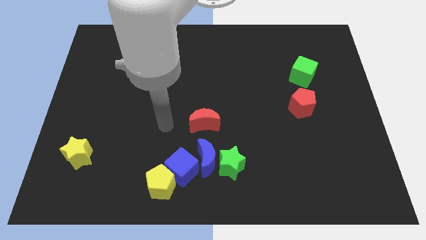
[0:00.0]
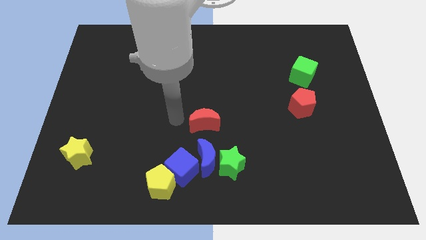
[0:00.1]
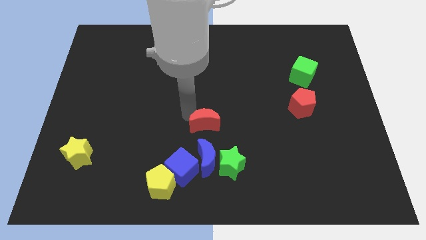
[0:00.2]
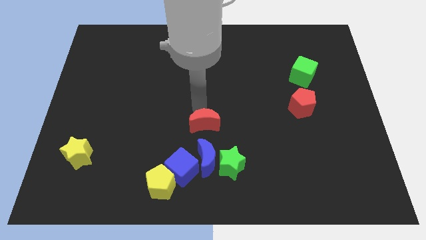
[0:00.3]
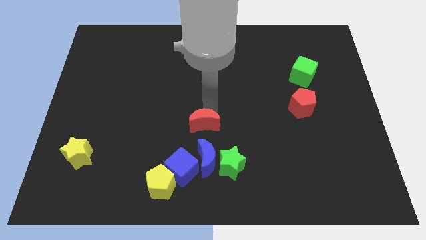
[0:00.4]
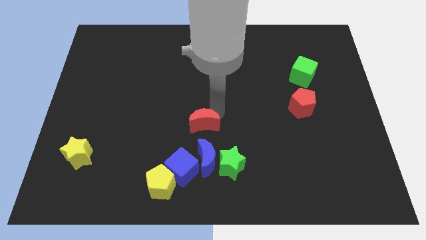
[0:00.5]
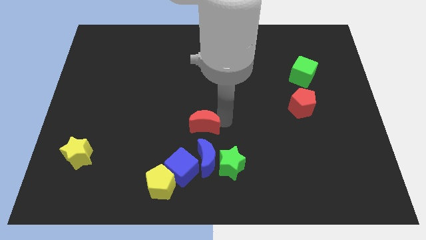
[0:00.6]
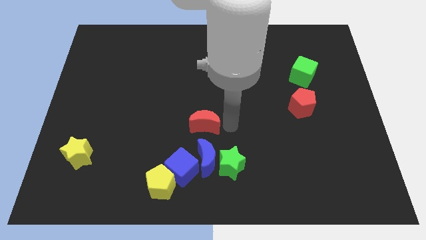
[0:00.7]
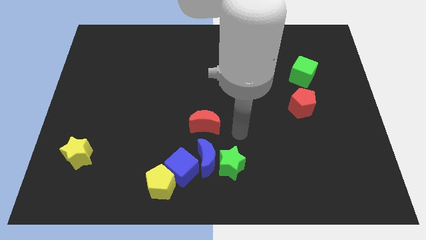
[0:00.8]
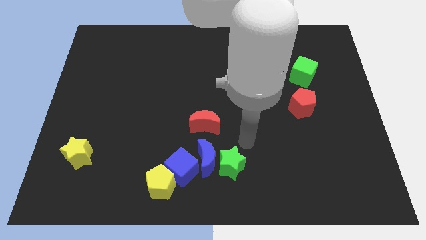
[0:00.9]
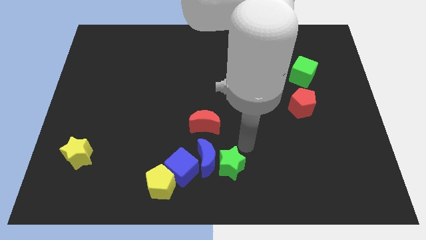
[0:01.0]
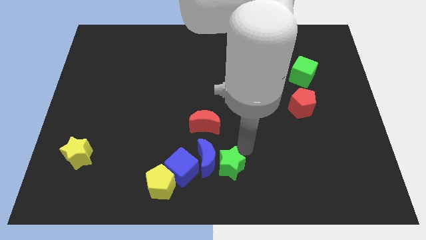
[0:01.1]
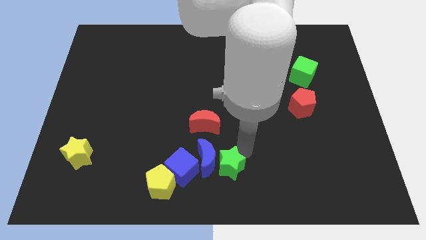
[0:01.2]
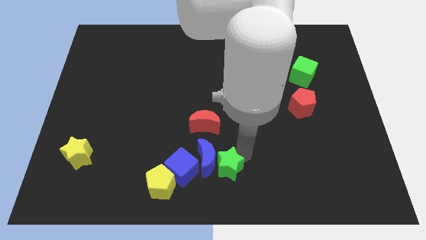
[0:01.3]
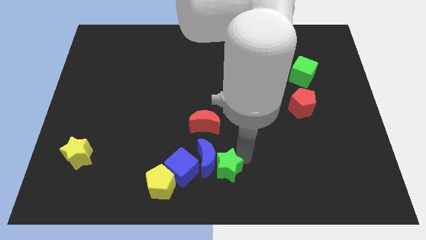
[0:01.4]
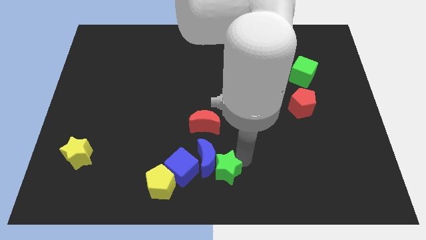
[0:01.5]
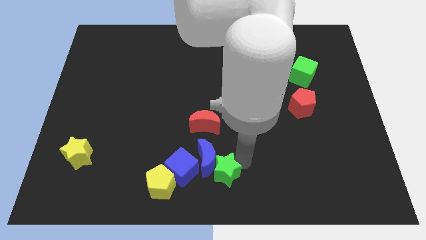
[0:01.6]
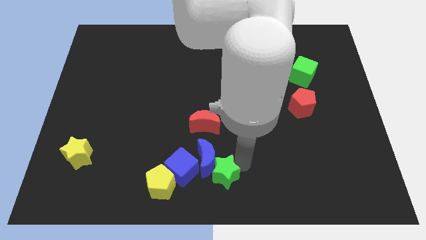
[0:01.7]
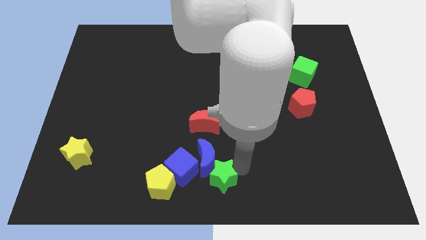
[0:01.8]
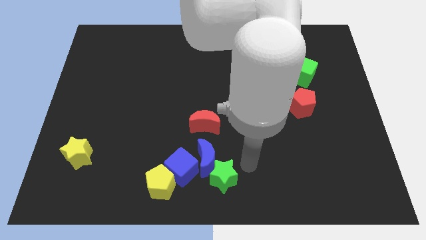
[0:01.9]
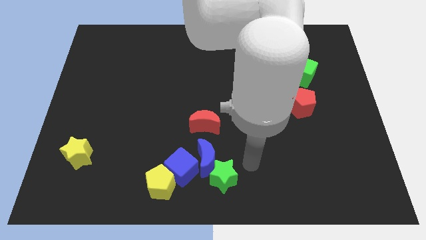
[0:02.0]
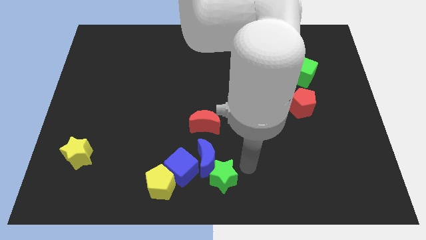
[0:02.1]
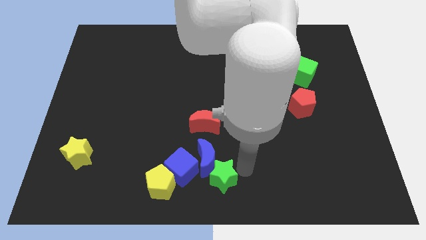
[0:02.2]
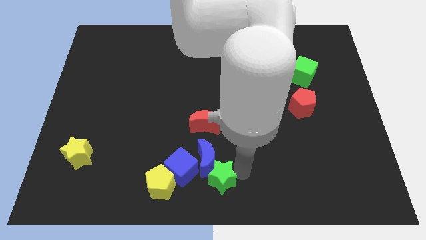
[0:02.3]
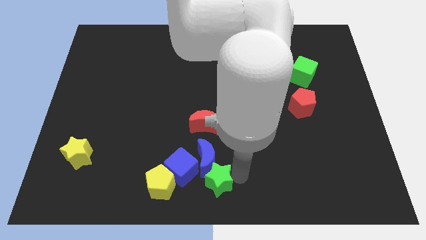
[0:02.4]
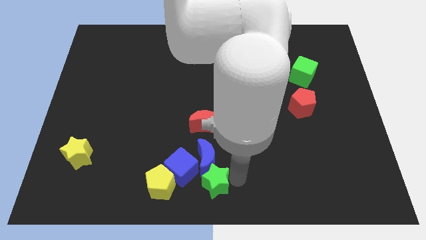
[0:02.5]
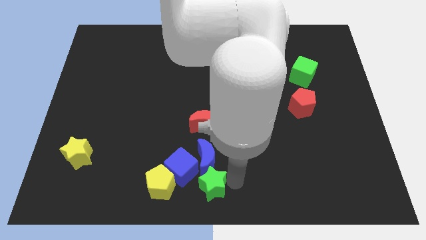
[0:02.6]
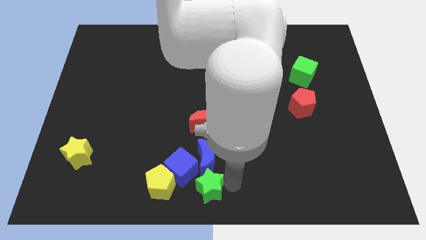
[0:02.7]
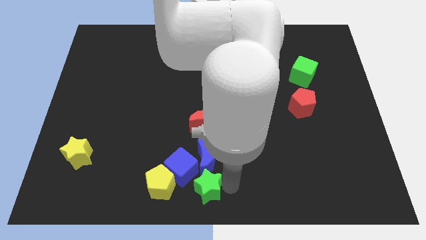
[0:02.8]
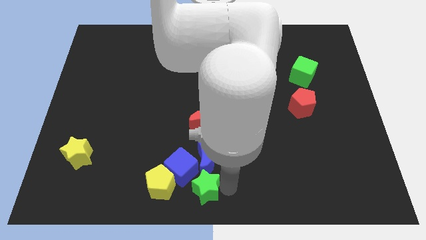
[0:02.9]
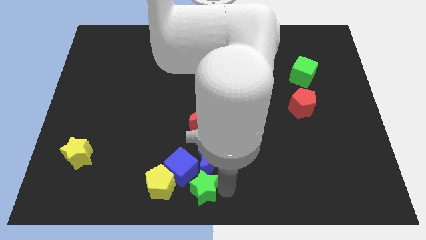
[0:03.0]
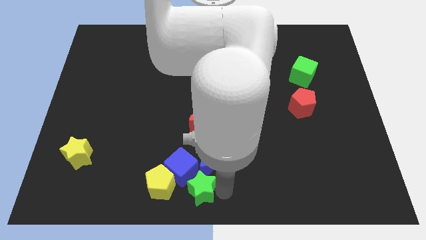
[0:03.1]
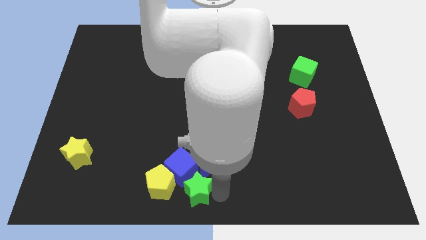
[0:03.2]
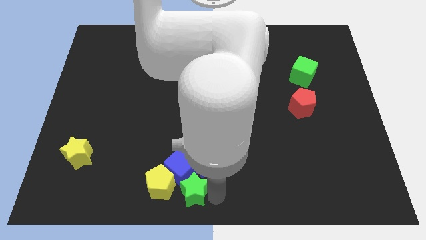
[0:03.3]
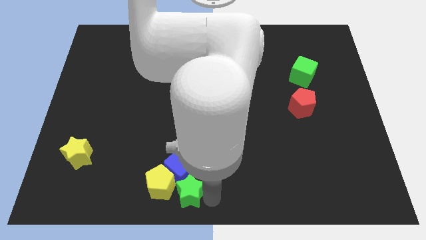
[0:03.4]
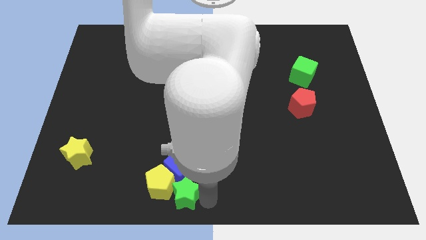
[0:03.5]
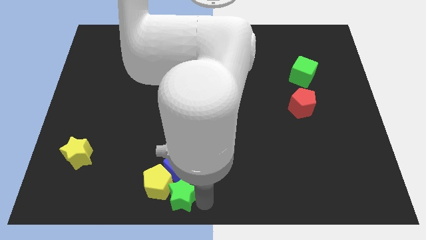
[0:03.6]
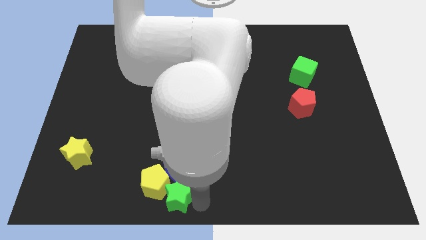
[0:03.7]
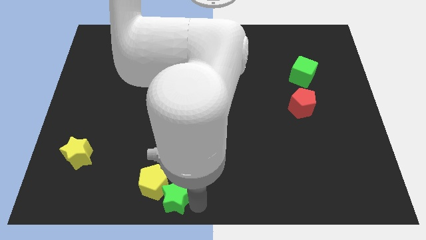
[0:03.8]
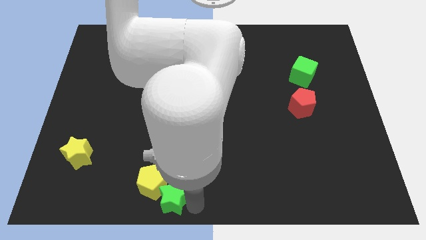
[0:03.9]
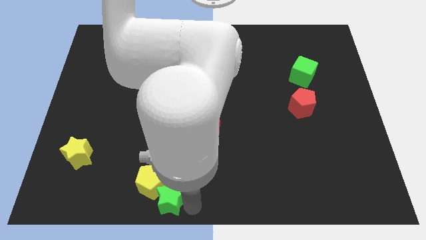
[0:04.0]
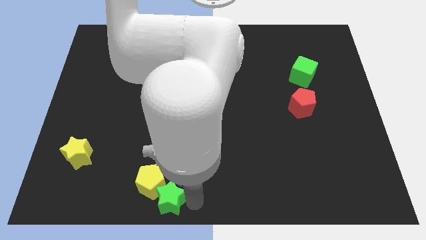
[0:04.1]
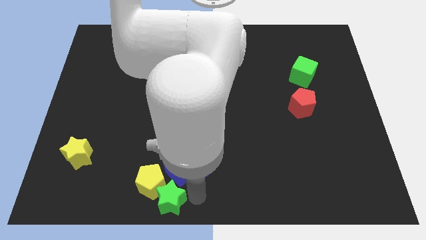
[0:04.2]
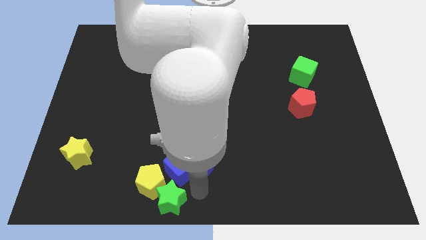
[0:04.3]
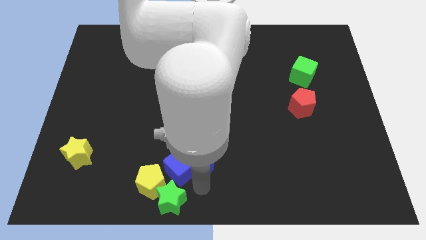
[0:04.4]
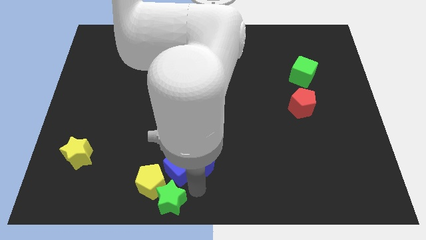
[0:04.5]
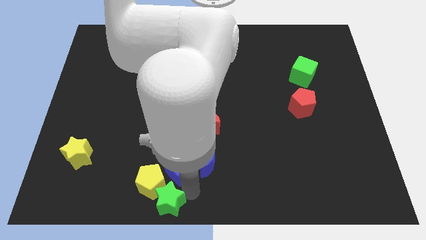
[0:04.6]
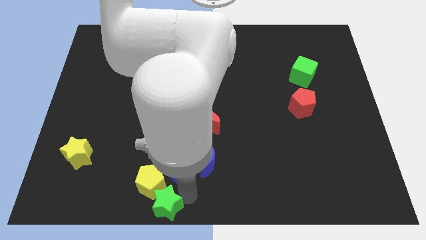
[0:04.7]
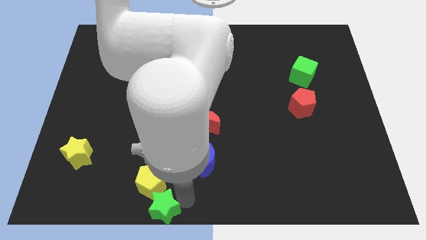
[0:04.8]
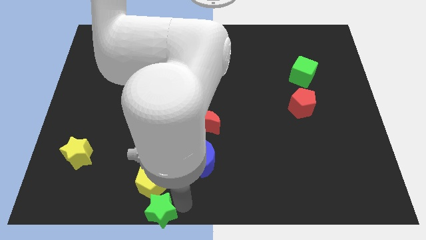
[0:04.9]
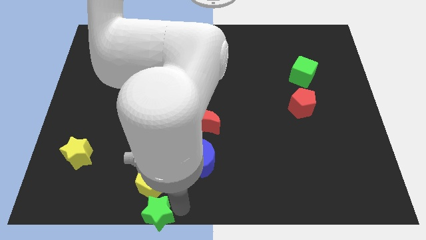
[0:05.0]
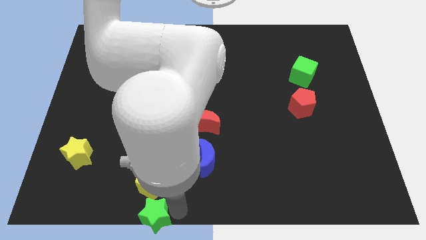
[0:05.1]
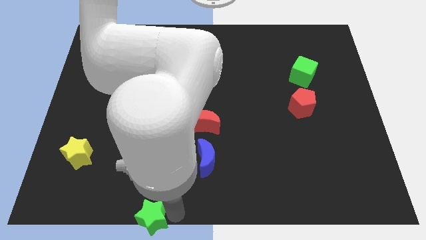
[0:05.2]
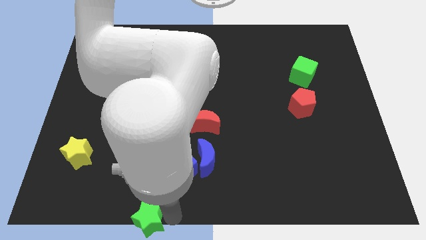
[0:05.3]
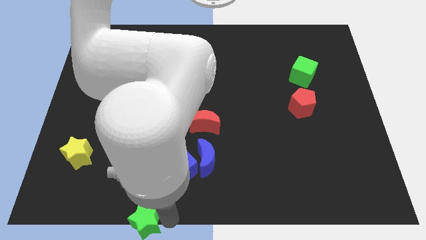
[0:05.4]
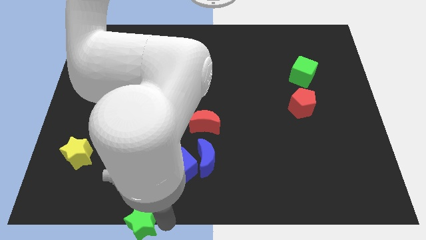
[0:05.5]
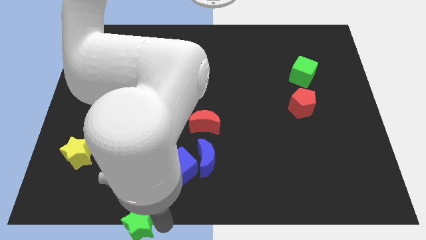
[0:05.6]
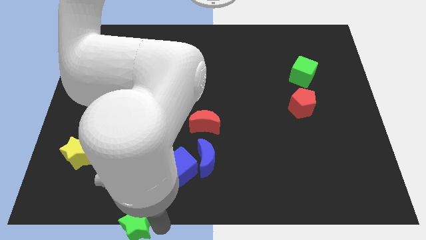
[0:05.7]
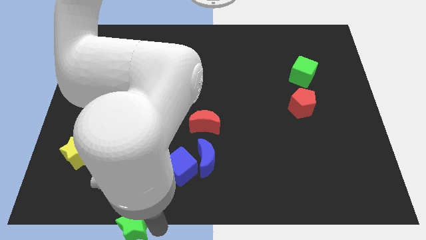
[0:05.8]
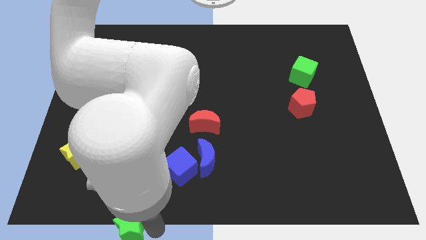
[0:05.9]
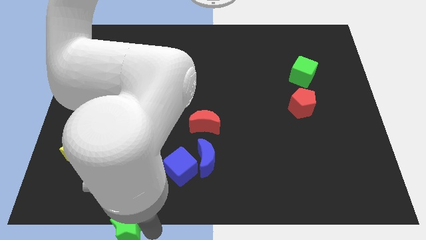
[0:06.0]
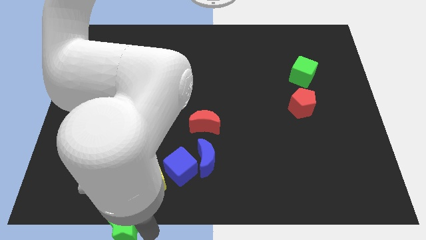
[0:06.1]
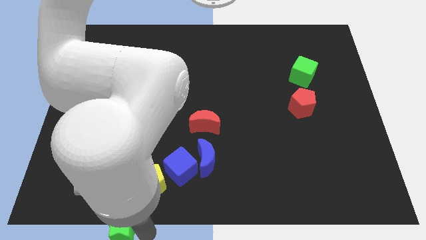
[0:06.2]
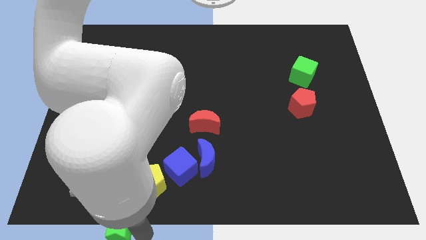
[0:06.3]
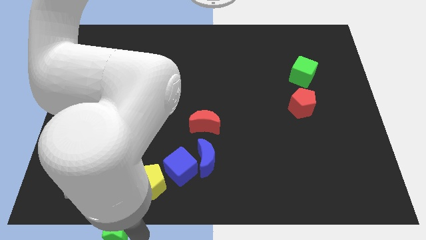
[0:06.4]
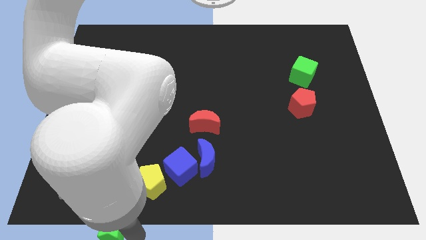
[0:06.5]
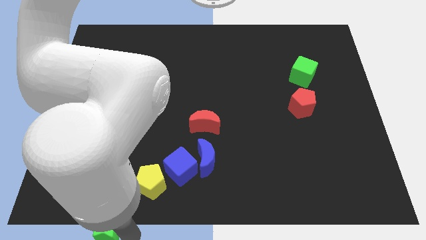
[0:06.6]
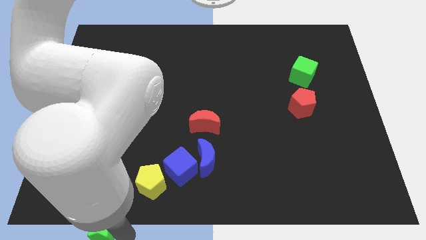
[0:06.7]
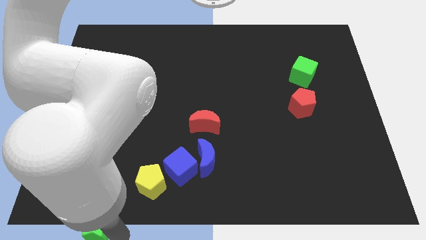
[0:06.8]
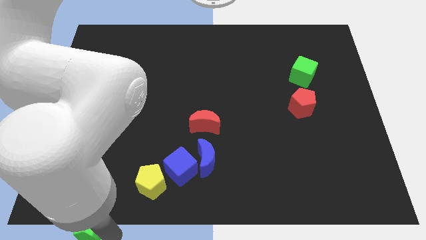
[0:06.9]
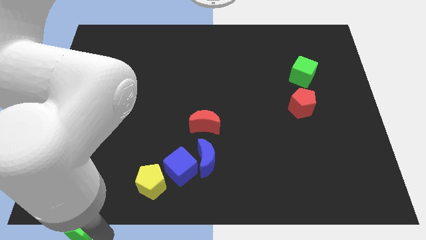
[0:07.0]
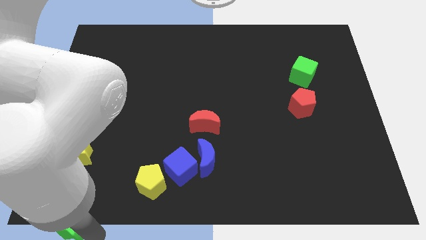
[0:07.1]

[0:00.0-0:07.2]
move the green star to the lower left corner
